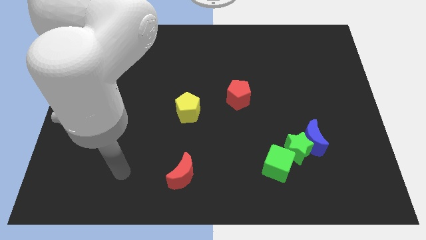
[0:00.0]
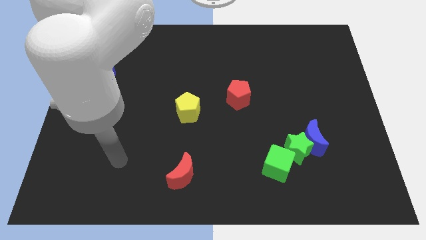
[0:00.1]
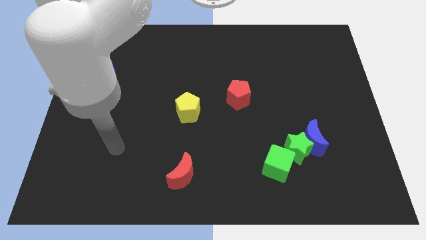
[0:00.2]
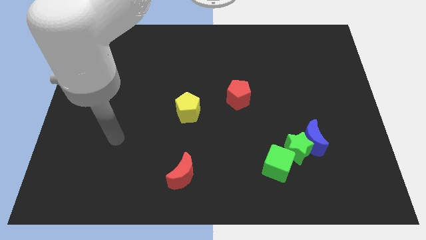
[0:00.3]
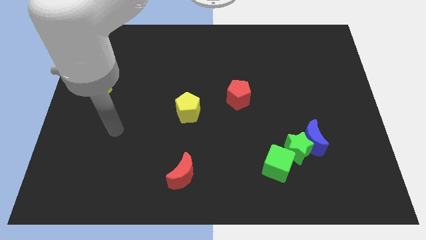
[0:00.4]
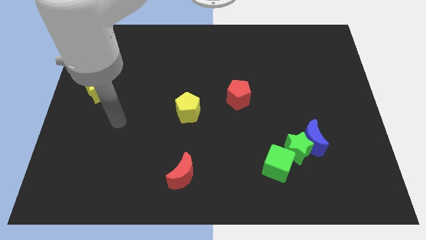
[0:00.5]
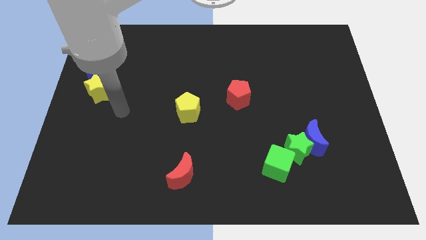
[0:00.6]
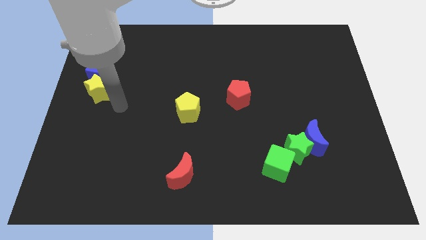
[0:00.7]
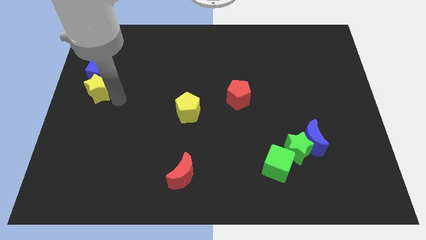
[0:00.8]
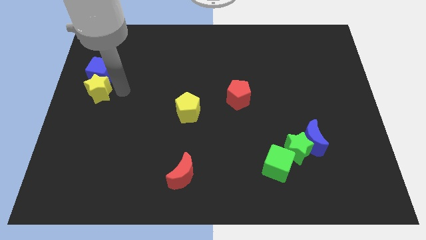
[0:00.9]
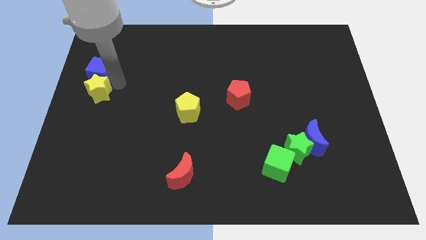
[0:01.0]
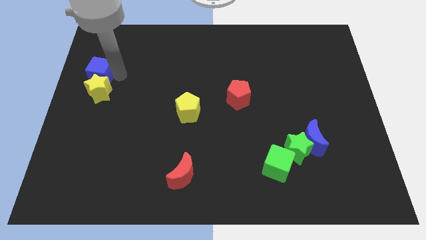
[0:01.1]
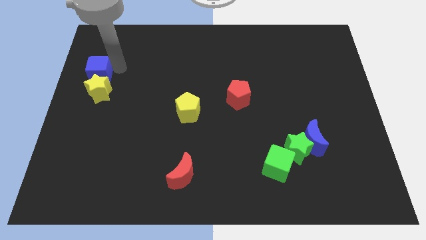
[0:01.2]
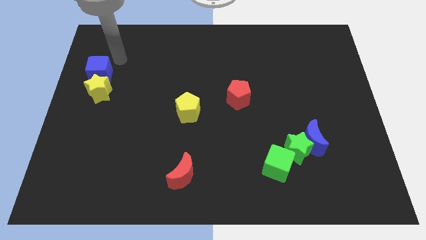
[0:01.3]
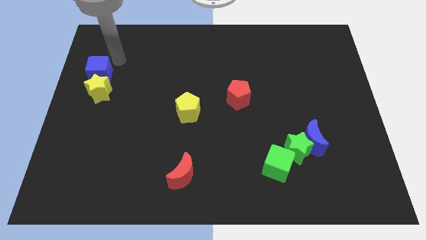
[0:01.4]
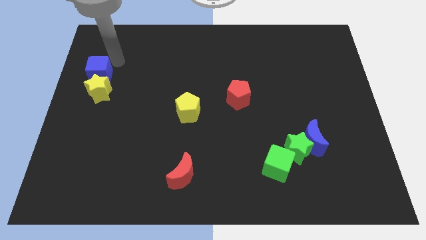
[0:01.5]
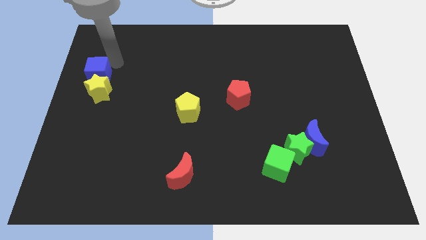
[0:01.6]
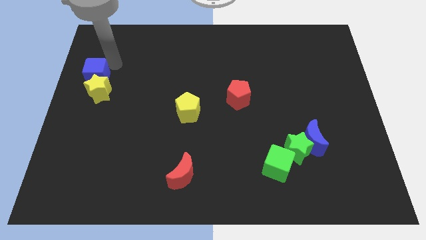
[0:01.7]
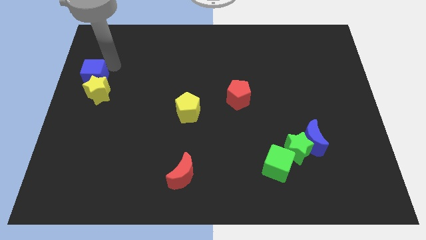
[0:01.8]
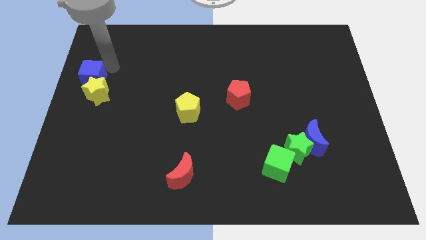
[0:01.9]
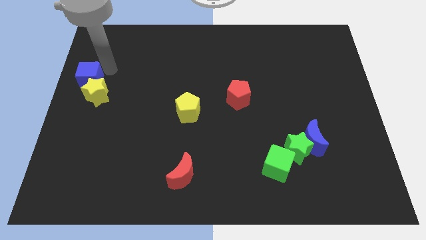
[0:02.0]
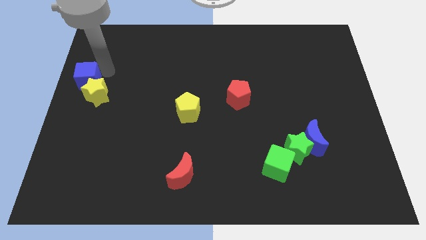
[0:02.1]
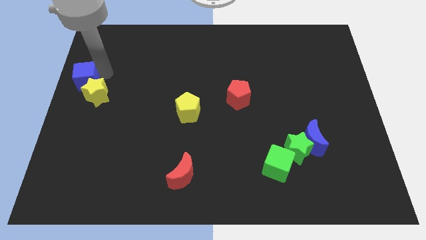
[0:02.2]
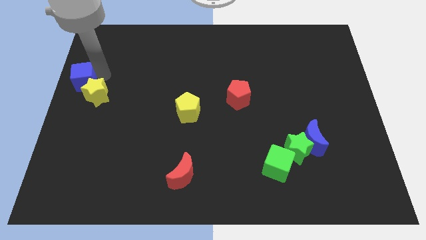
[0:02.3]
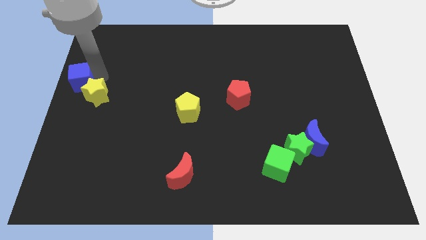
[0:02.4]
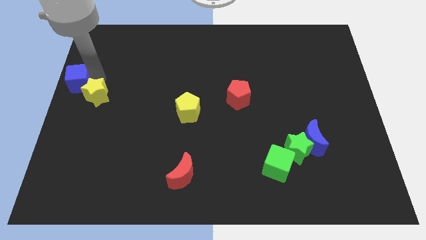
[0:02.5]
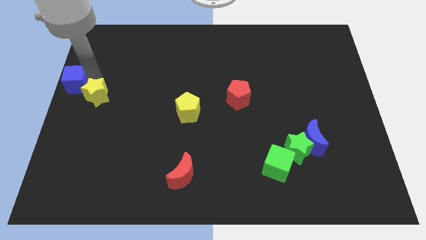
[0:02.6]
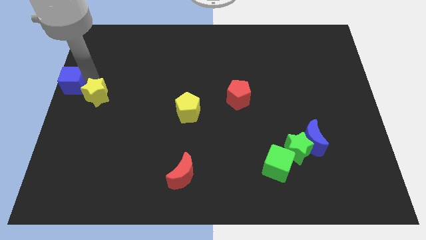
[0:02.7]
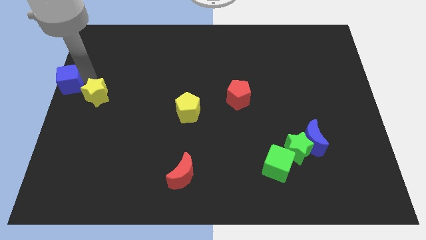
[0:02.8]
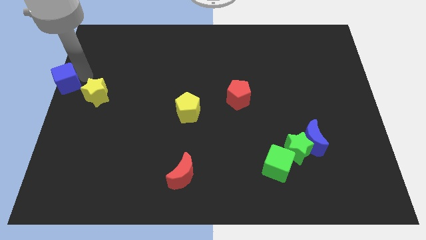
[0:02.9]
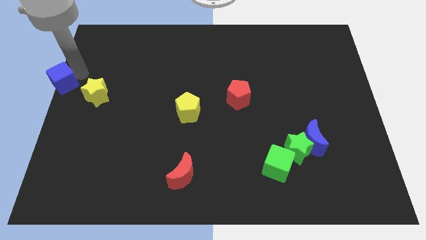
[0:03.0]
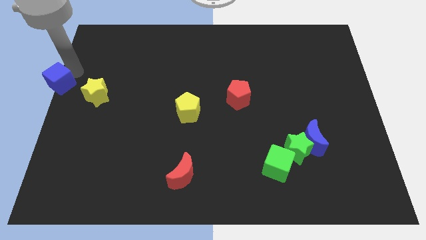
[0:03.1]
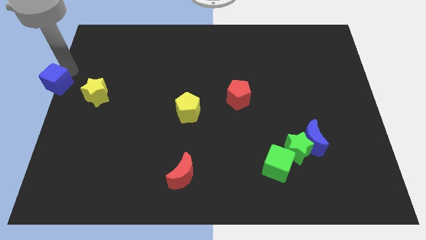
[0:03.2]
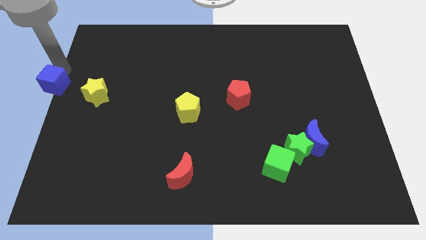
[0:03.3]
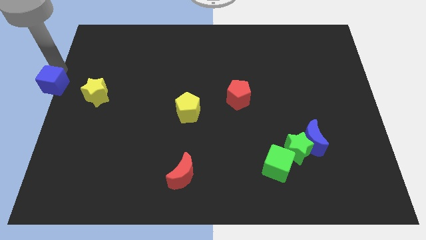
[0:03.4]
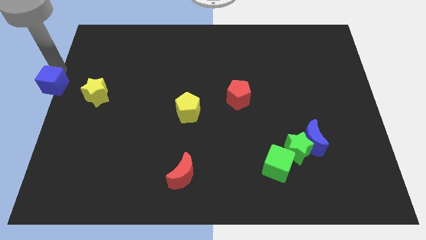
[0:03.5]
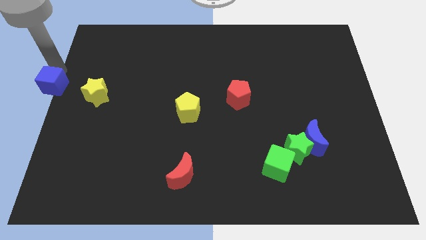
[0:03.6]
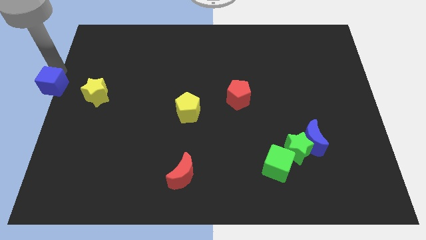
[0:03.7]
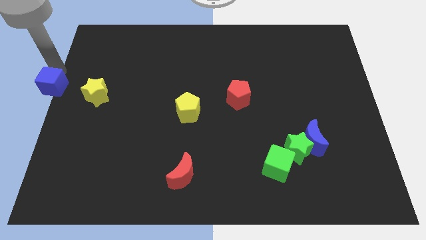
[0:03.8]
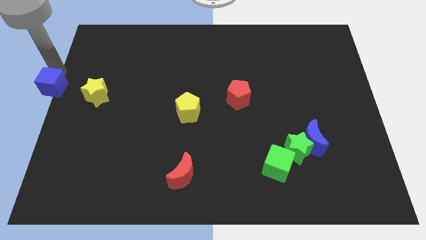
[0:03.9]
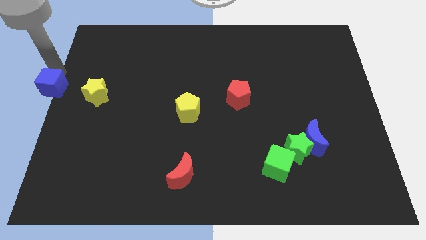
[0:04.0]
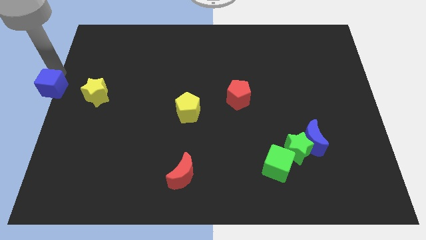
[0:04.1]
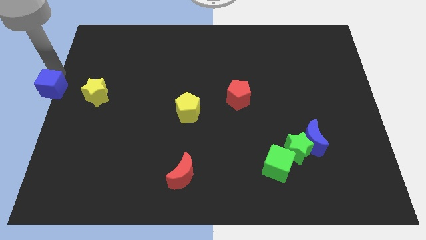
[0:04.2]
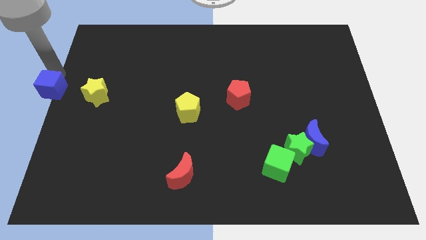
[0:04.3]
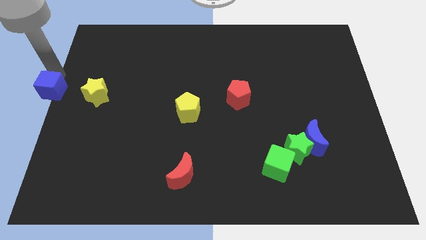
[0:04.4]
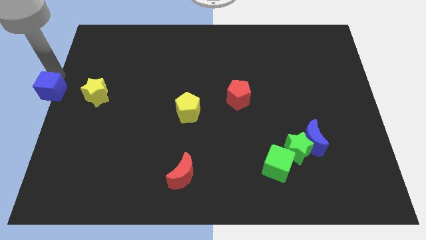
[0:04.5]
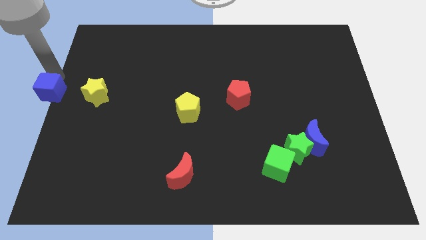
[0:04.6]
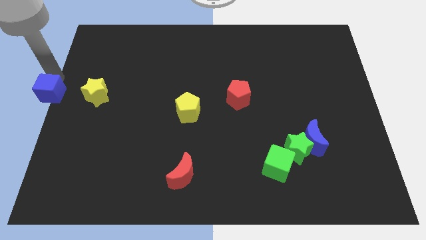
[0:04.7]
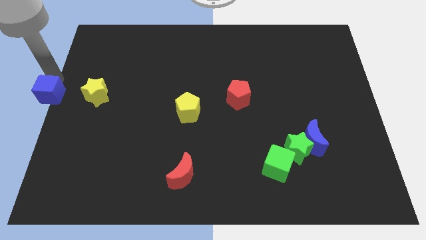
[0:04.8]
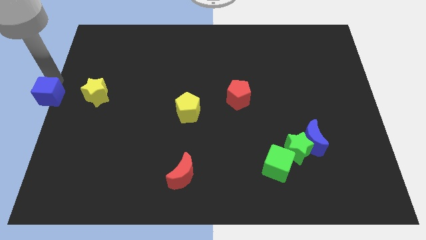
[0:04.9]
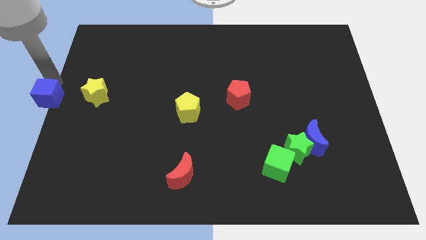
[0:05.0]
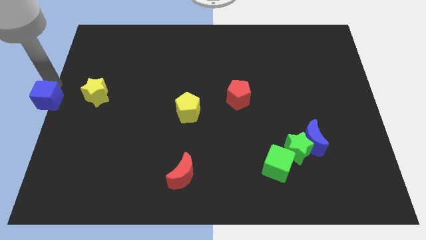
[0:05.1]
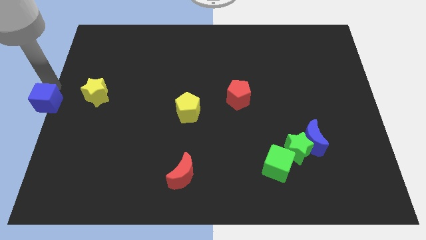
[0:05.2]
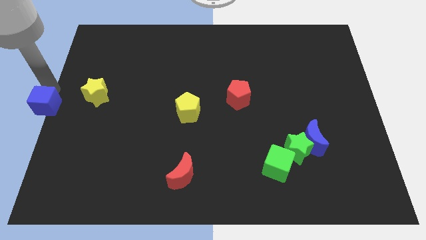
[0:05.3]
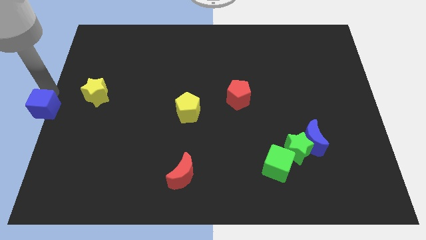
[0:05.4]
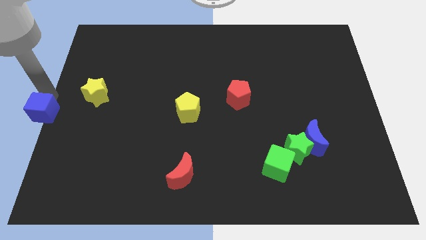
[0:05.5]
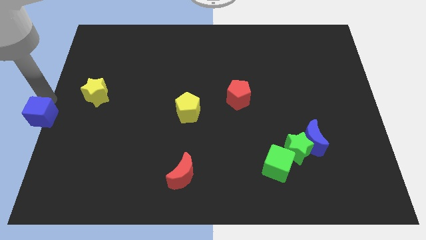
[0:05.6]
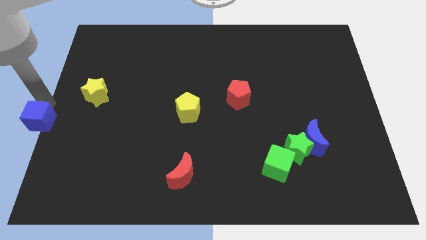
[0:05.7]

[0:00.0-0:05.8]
slightly slide the blue cube down

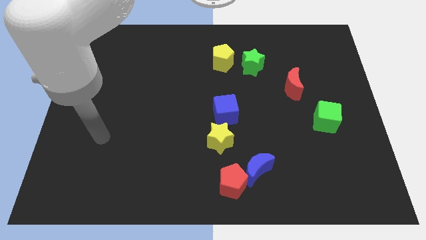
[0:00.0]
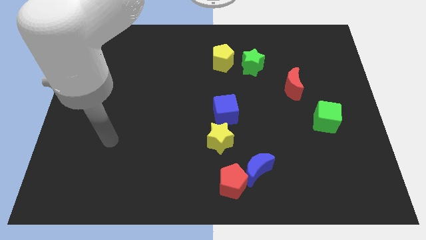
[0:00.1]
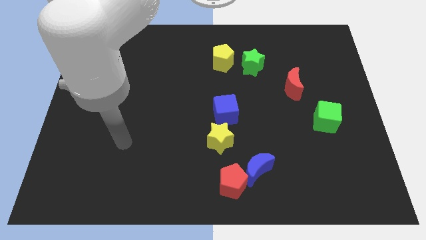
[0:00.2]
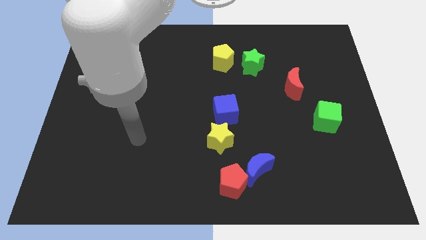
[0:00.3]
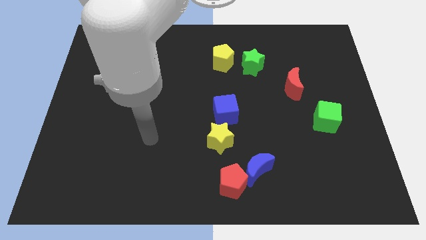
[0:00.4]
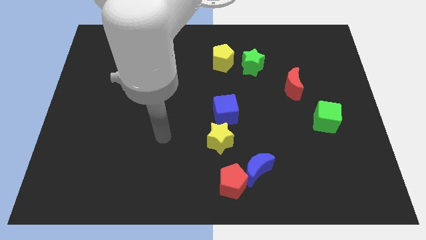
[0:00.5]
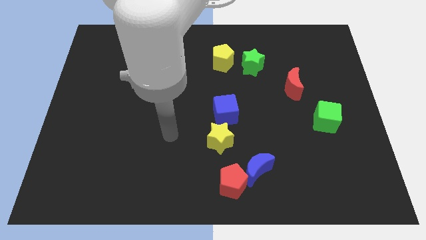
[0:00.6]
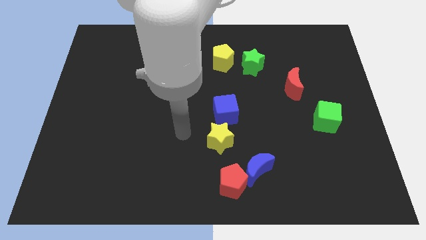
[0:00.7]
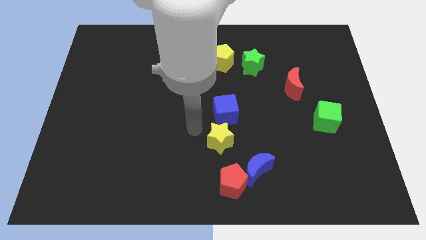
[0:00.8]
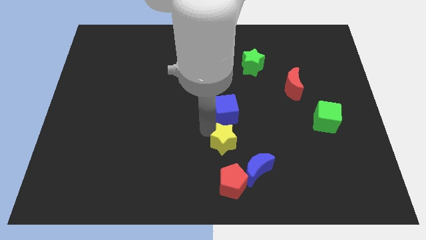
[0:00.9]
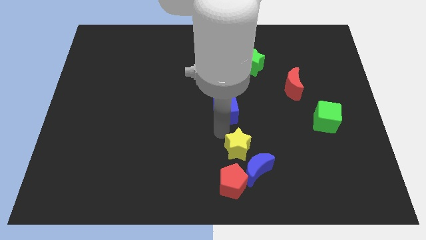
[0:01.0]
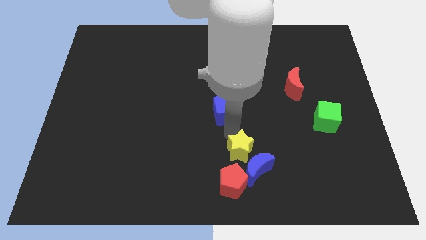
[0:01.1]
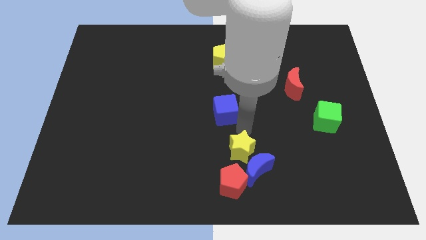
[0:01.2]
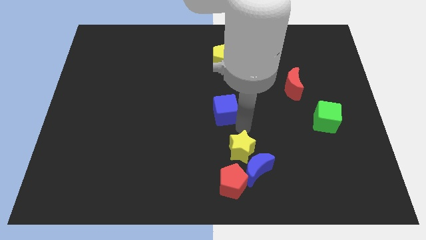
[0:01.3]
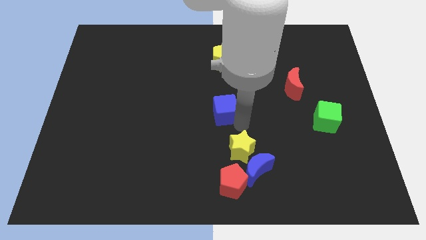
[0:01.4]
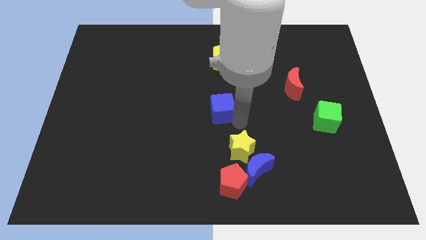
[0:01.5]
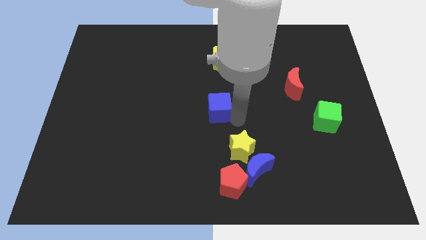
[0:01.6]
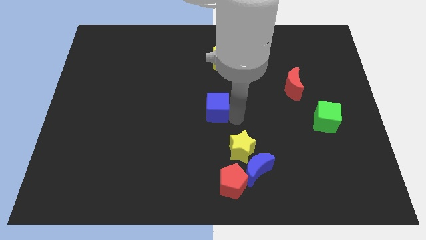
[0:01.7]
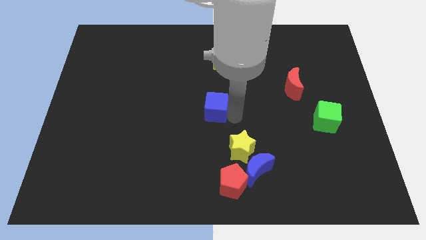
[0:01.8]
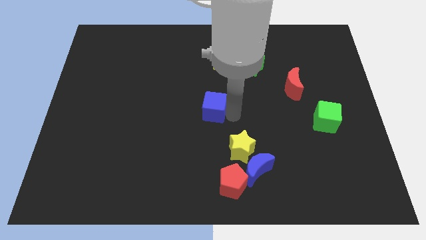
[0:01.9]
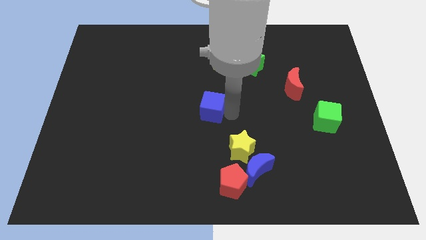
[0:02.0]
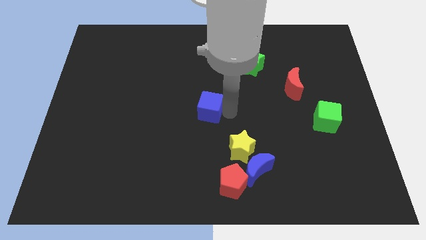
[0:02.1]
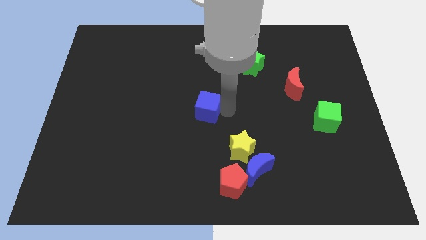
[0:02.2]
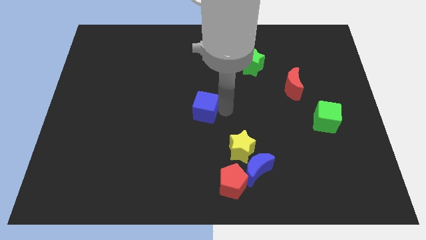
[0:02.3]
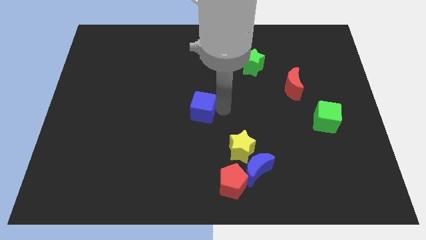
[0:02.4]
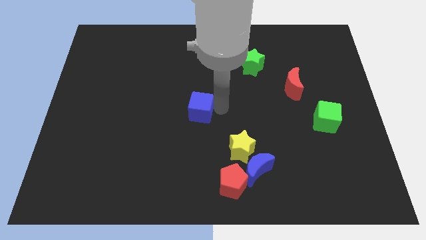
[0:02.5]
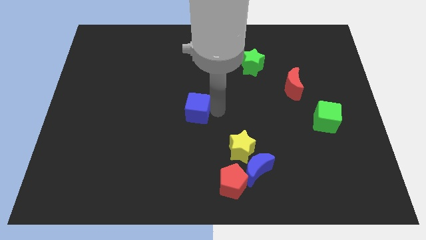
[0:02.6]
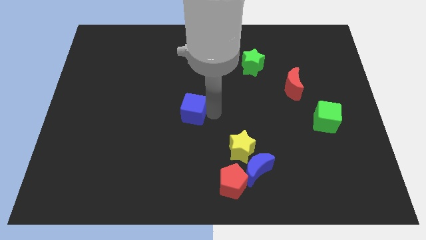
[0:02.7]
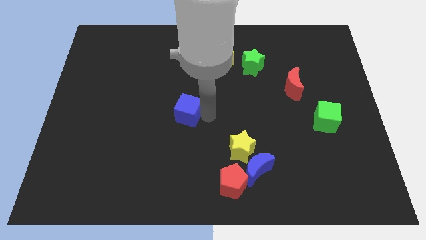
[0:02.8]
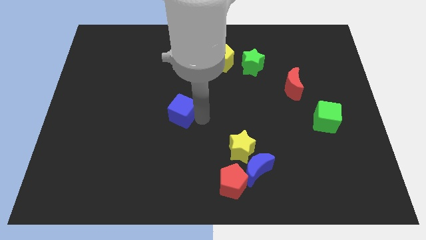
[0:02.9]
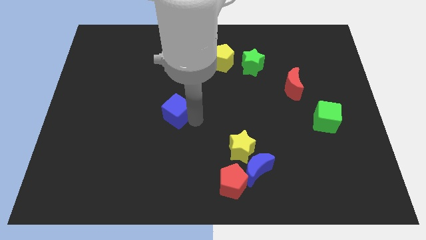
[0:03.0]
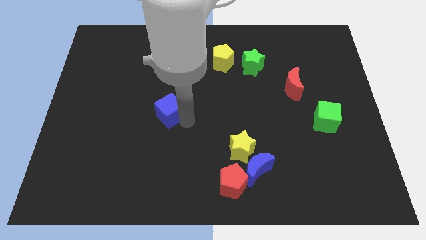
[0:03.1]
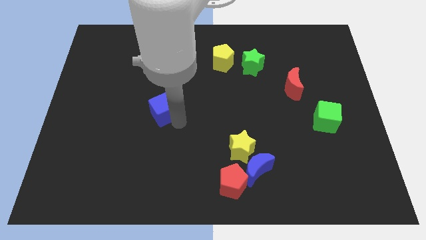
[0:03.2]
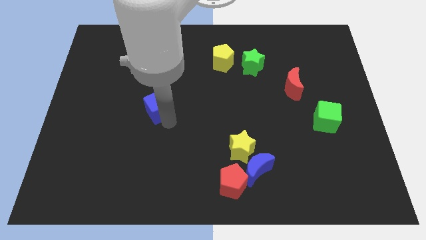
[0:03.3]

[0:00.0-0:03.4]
move the blue cube a little bit up and to the left diagonally
